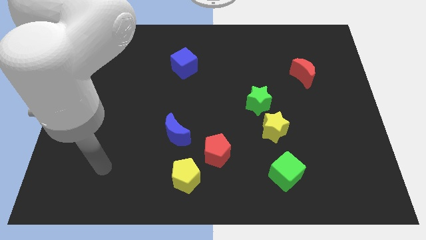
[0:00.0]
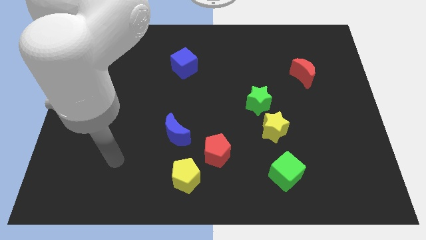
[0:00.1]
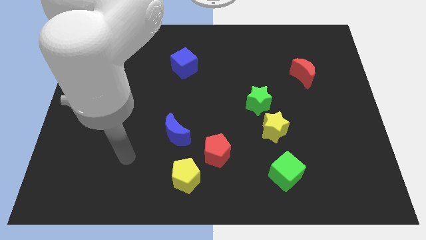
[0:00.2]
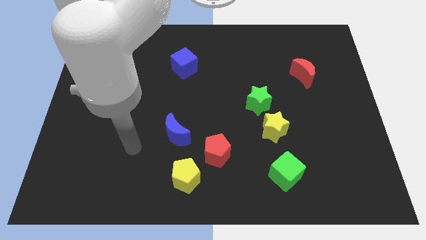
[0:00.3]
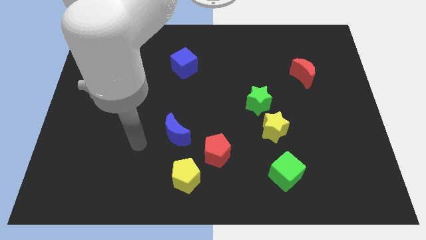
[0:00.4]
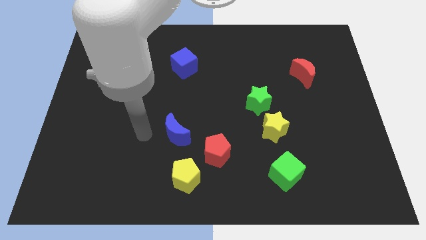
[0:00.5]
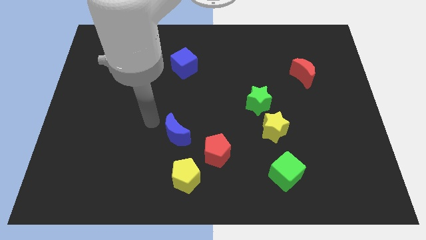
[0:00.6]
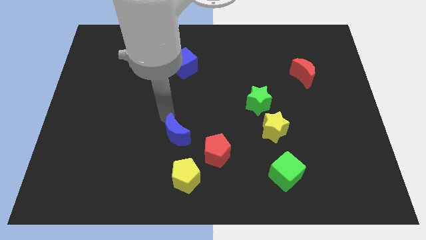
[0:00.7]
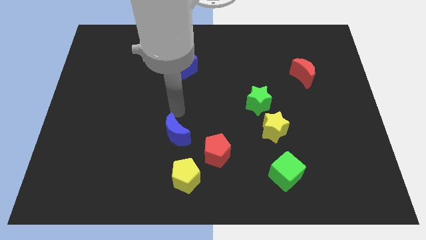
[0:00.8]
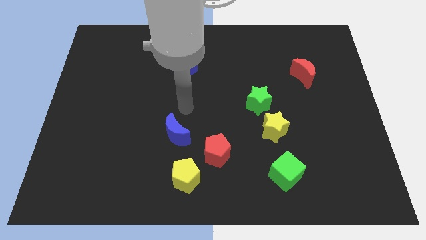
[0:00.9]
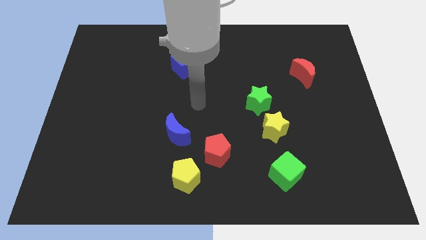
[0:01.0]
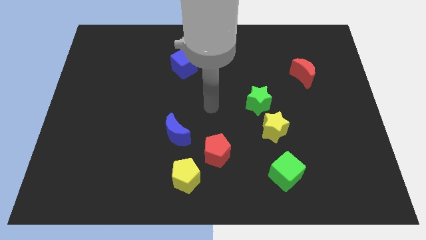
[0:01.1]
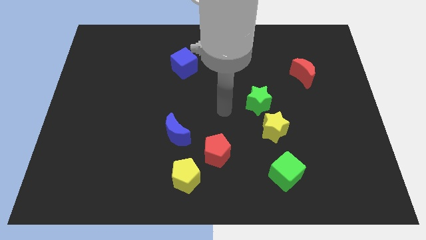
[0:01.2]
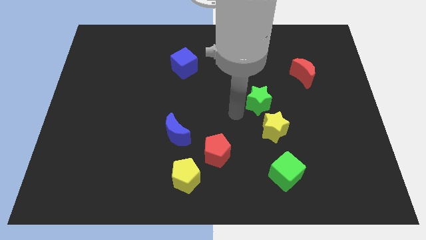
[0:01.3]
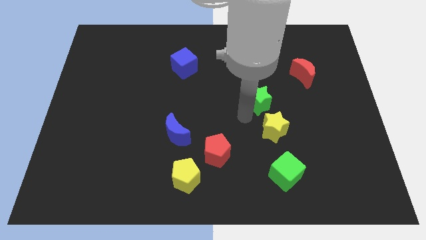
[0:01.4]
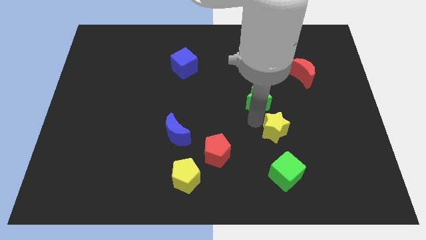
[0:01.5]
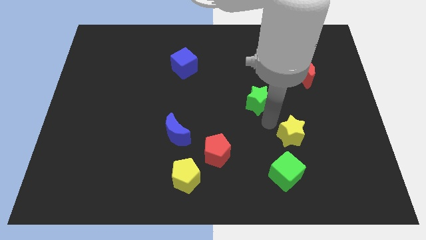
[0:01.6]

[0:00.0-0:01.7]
move the green star away from the yellow star

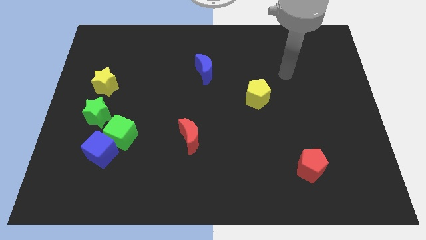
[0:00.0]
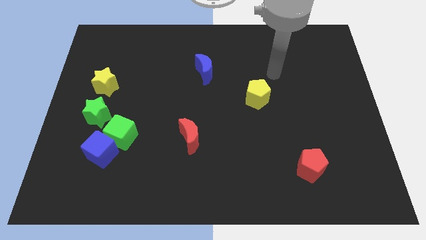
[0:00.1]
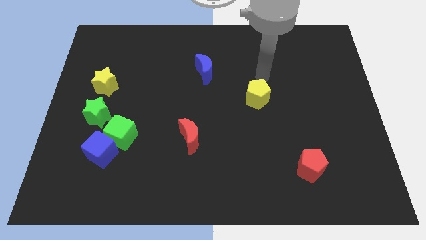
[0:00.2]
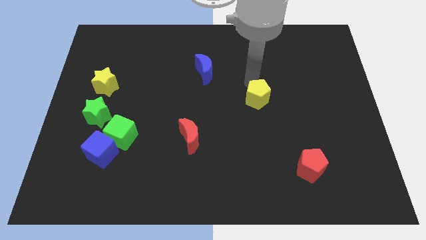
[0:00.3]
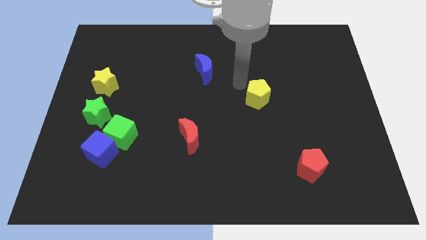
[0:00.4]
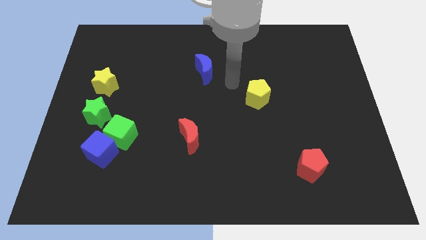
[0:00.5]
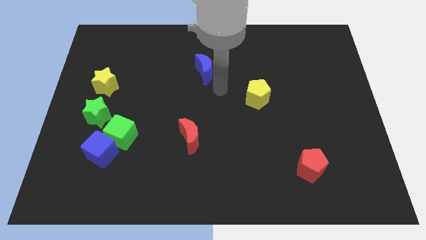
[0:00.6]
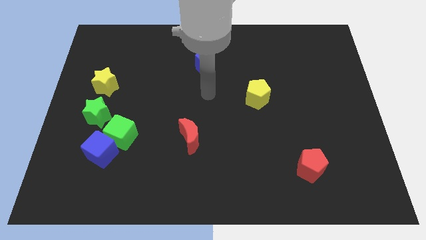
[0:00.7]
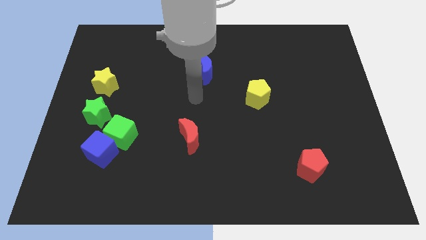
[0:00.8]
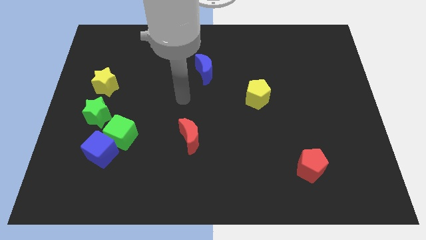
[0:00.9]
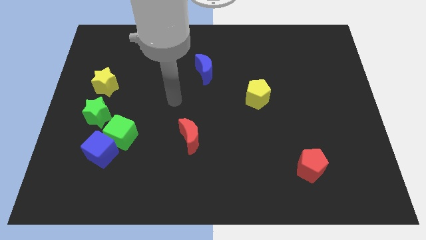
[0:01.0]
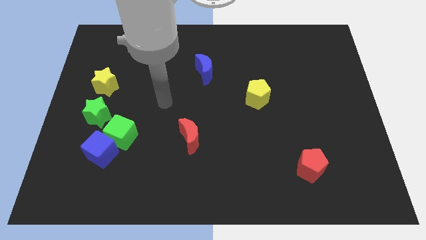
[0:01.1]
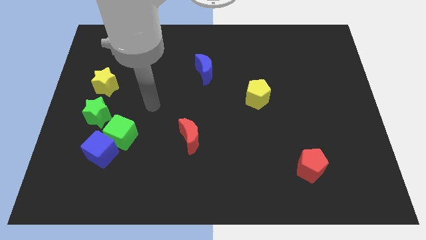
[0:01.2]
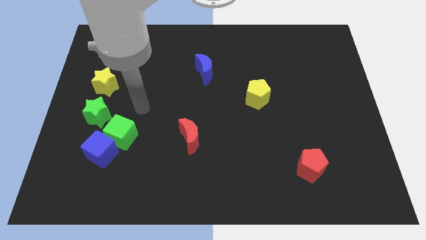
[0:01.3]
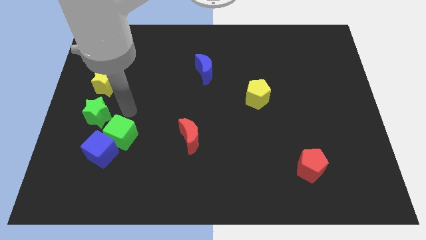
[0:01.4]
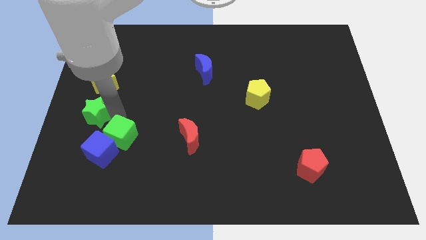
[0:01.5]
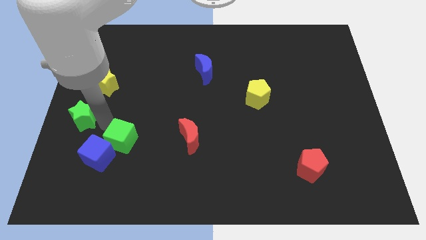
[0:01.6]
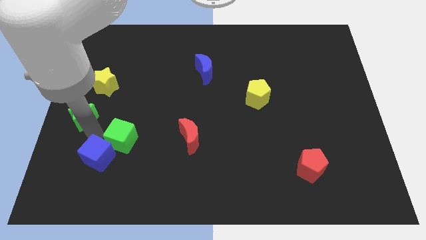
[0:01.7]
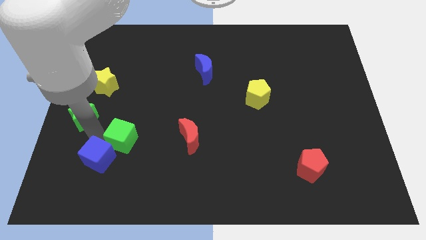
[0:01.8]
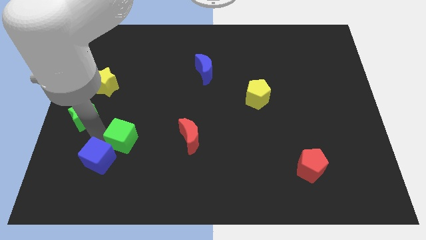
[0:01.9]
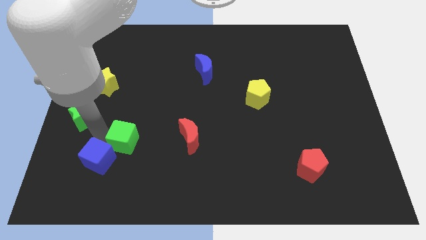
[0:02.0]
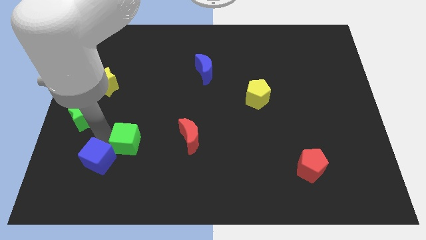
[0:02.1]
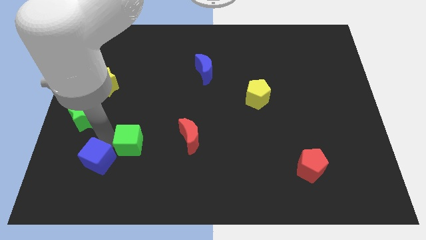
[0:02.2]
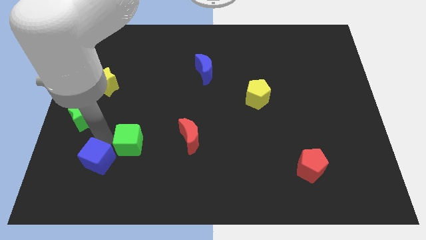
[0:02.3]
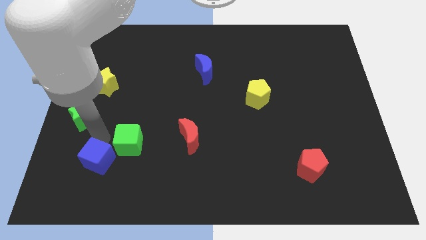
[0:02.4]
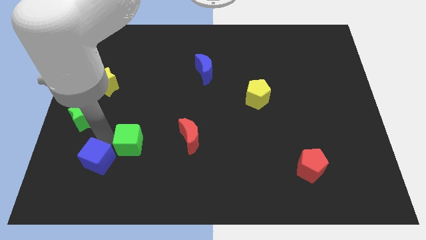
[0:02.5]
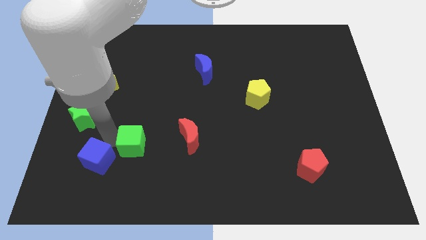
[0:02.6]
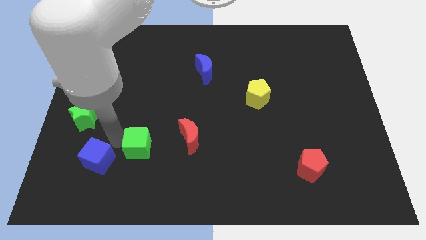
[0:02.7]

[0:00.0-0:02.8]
pull the green cube apart from the blue cube and green star

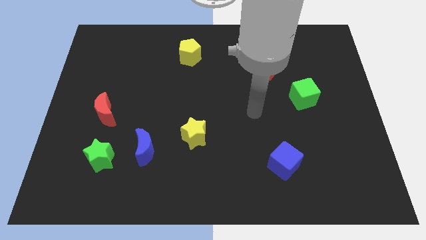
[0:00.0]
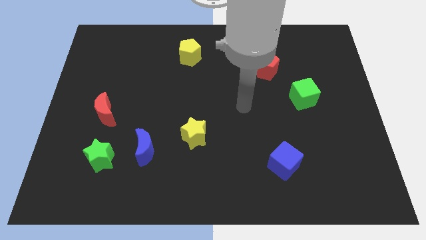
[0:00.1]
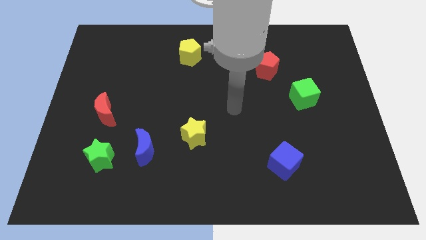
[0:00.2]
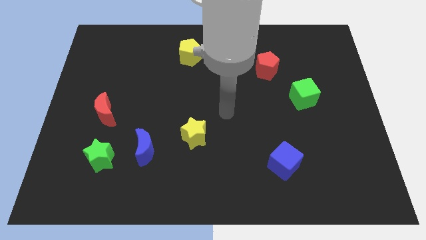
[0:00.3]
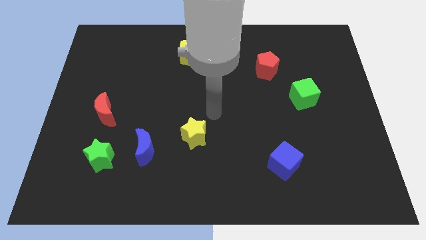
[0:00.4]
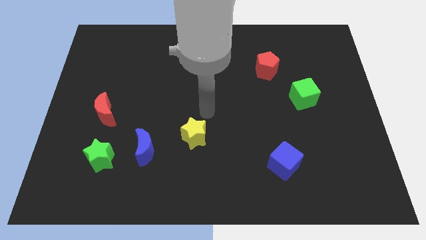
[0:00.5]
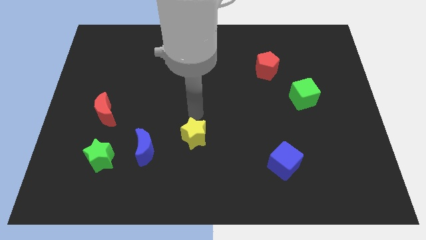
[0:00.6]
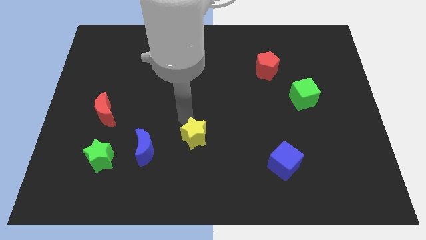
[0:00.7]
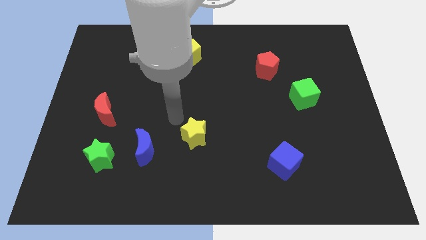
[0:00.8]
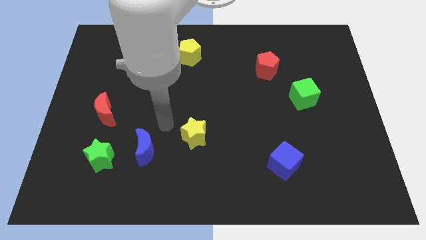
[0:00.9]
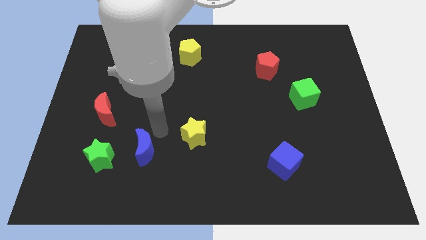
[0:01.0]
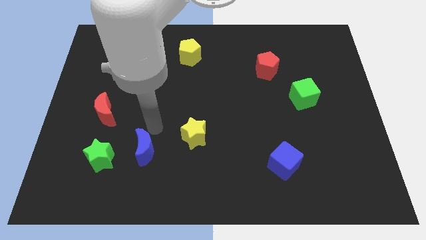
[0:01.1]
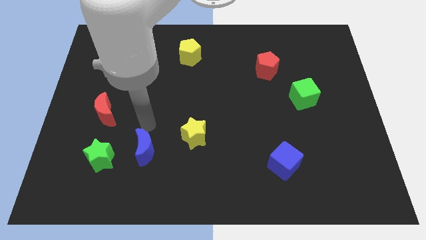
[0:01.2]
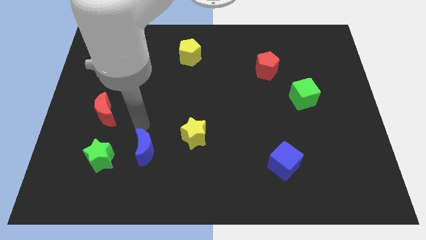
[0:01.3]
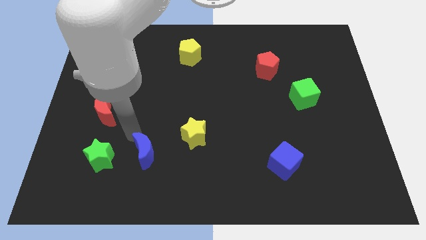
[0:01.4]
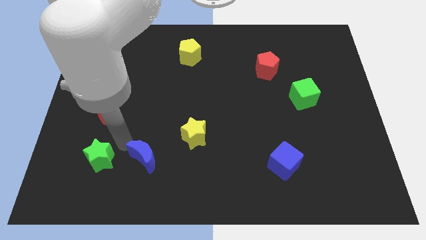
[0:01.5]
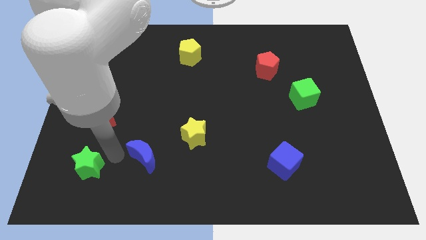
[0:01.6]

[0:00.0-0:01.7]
move the blue moon away from the green star

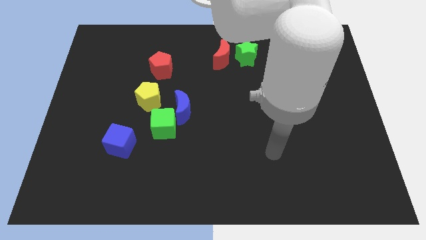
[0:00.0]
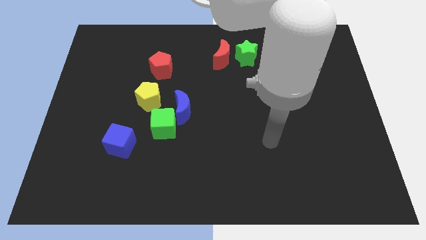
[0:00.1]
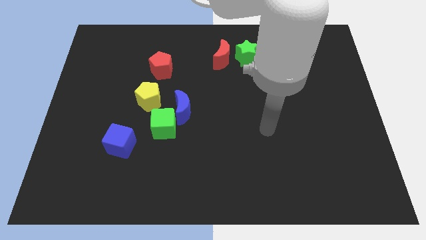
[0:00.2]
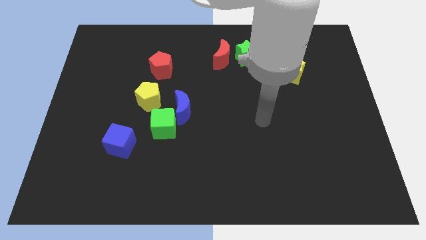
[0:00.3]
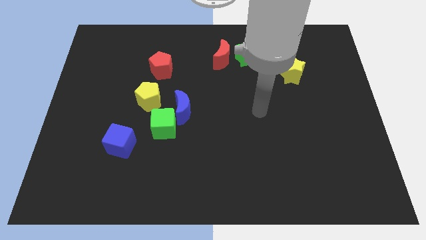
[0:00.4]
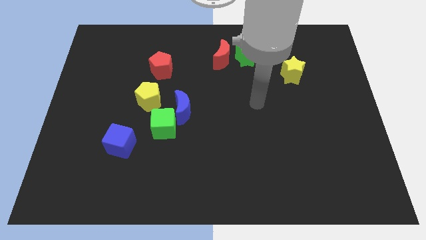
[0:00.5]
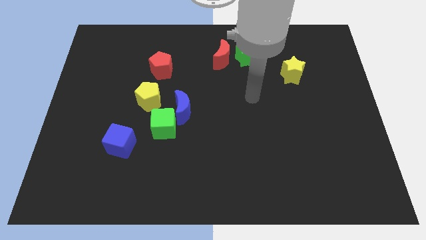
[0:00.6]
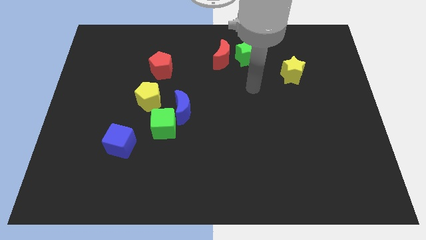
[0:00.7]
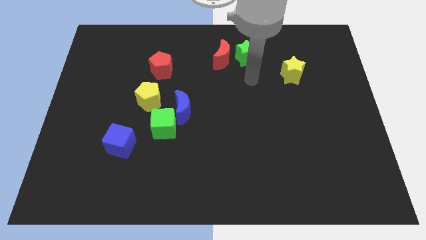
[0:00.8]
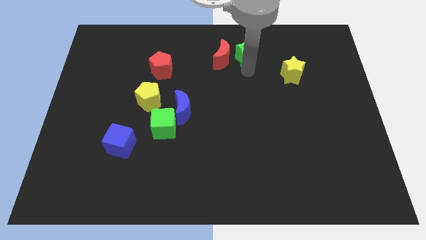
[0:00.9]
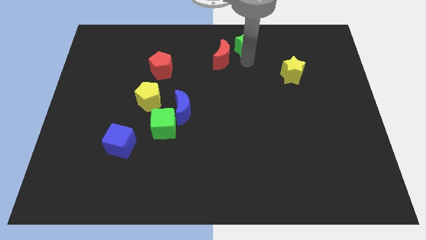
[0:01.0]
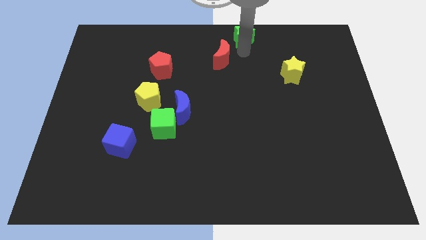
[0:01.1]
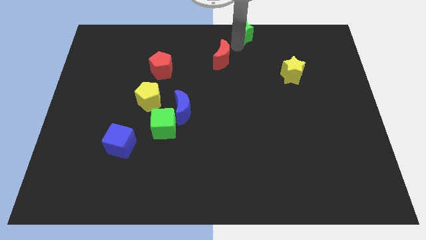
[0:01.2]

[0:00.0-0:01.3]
move the red moon away from the green star

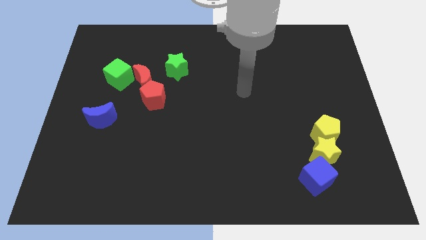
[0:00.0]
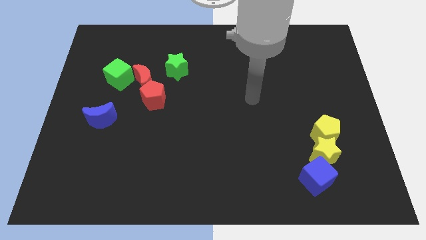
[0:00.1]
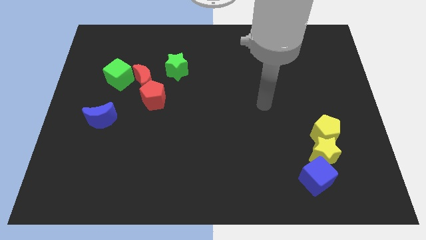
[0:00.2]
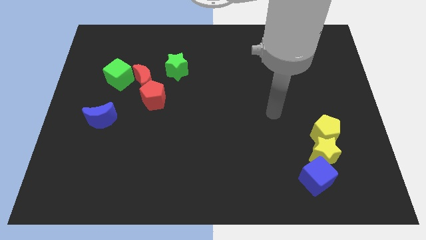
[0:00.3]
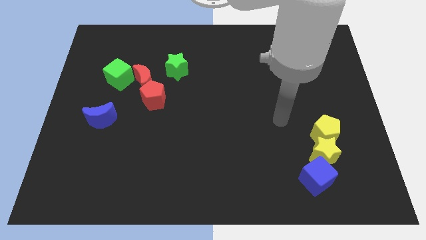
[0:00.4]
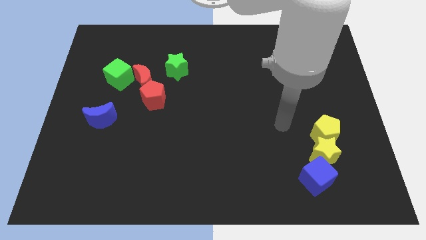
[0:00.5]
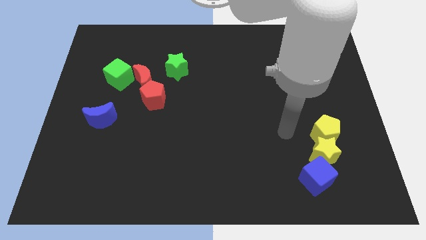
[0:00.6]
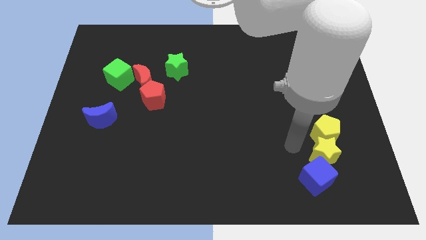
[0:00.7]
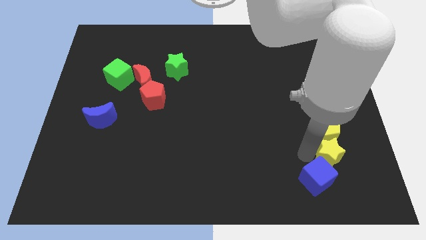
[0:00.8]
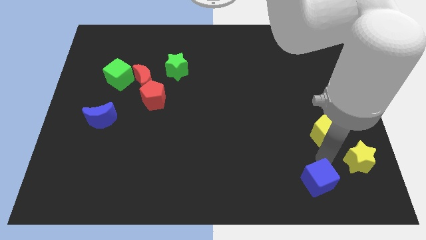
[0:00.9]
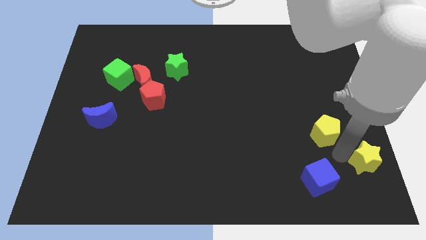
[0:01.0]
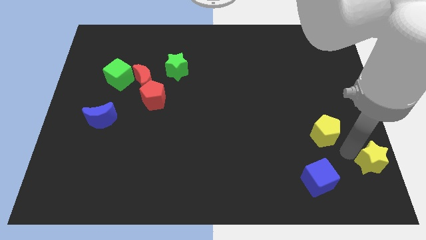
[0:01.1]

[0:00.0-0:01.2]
move the yellow pentagon away from the yellow star

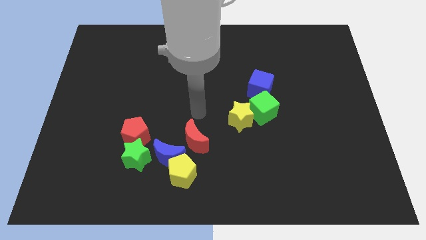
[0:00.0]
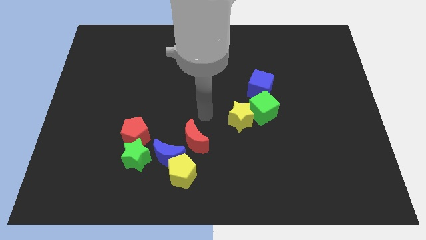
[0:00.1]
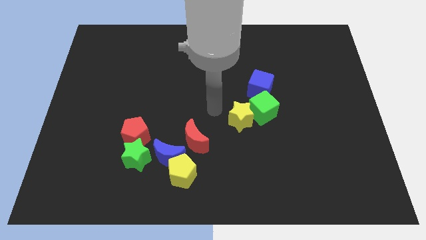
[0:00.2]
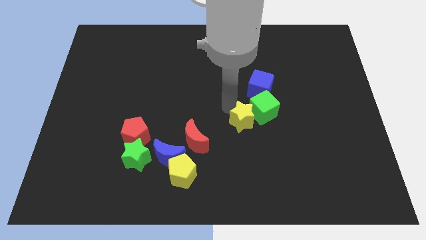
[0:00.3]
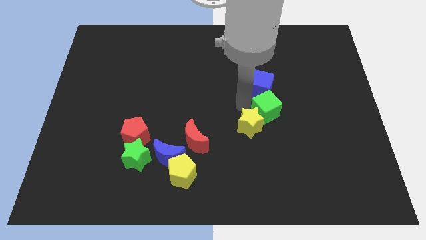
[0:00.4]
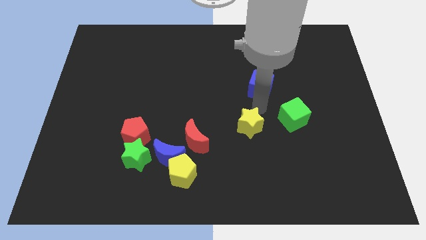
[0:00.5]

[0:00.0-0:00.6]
pull the yellow star apart from the green cube
